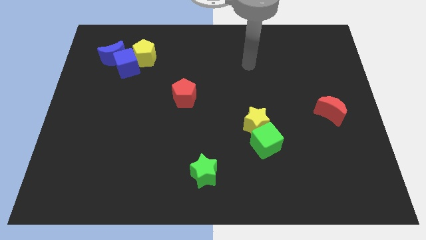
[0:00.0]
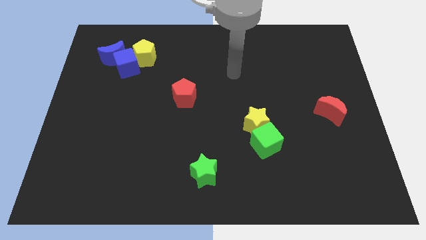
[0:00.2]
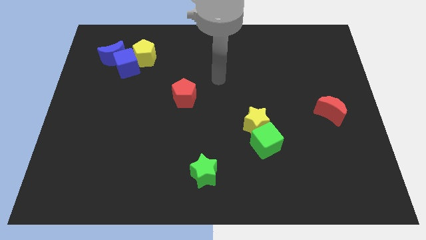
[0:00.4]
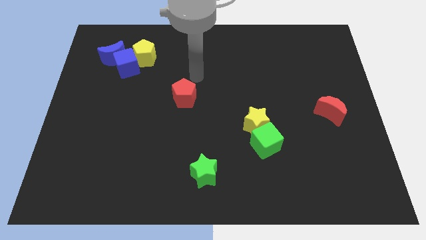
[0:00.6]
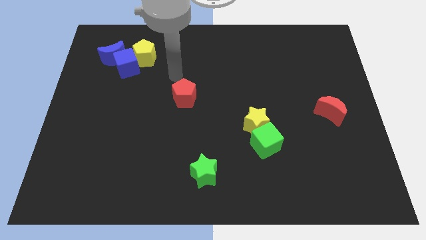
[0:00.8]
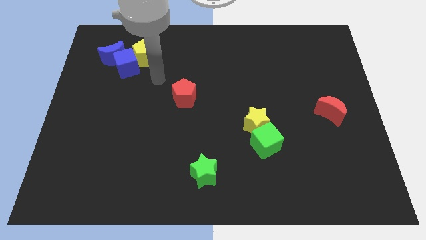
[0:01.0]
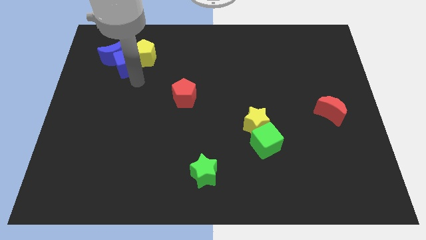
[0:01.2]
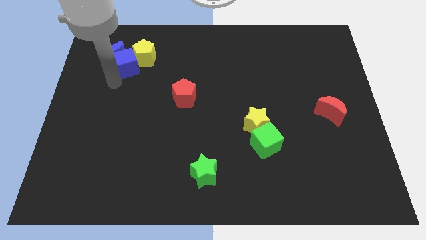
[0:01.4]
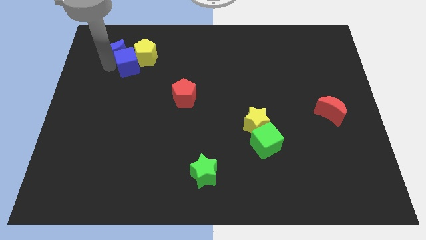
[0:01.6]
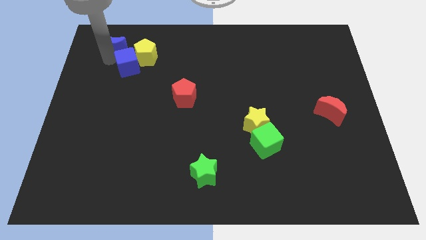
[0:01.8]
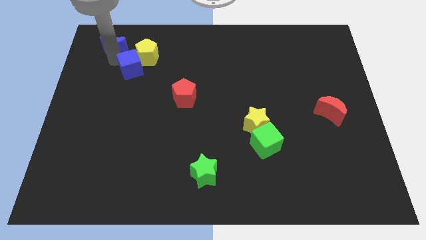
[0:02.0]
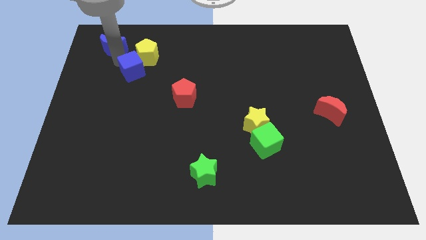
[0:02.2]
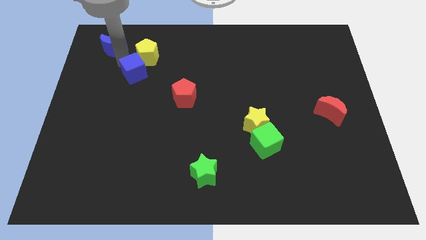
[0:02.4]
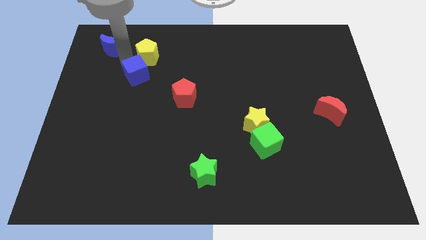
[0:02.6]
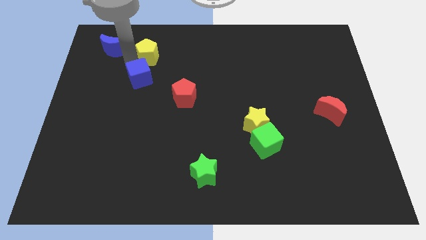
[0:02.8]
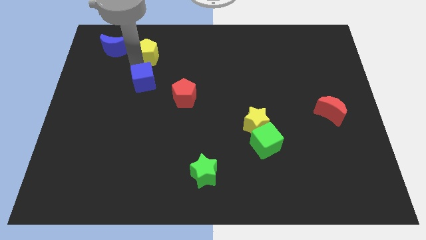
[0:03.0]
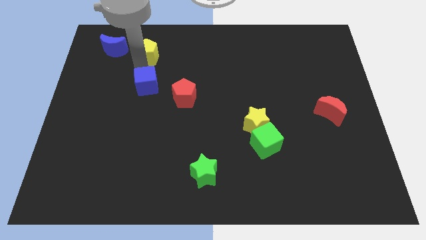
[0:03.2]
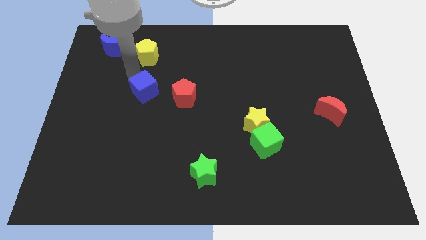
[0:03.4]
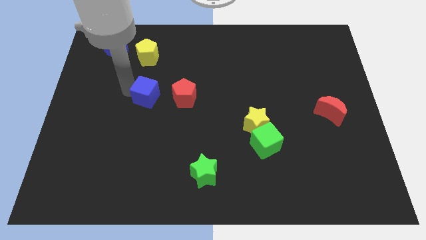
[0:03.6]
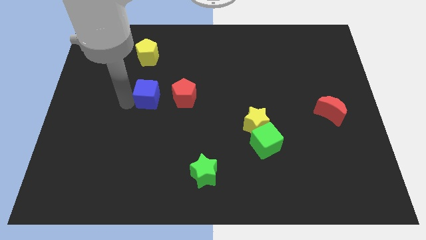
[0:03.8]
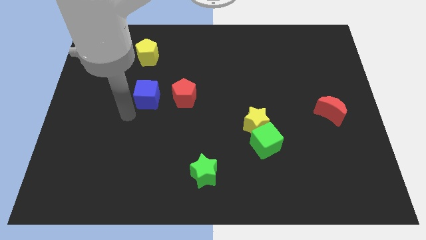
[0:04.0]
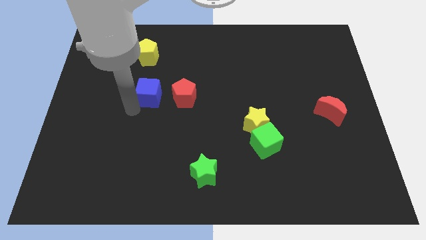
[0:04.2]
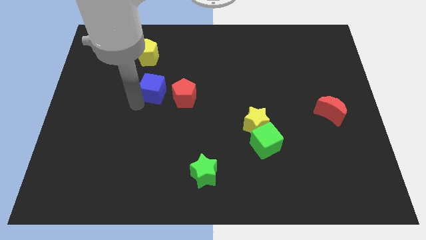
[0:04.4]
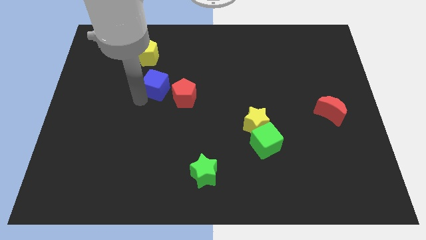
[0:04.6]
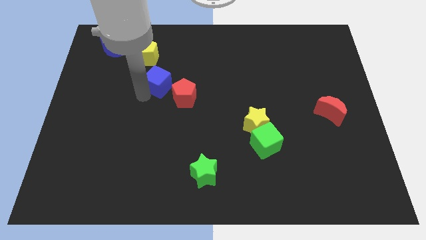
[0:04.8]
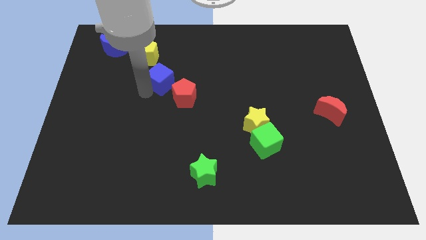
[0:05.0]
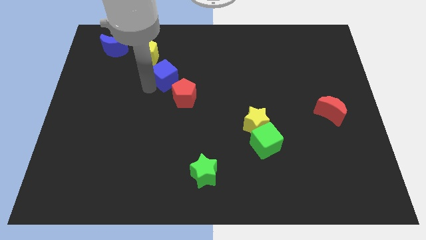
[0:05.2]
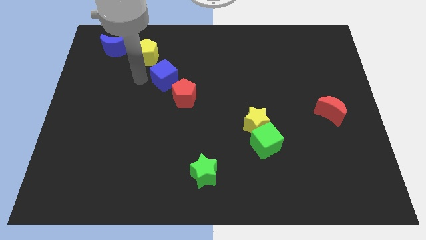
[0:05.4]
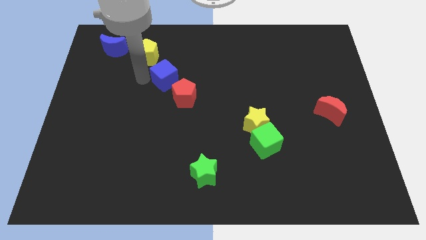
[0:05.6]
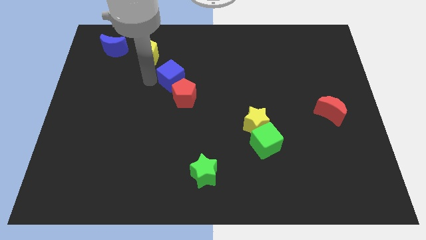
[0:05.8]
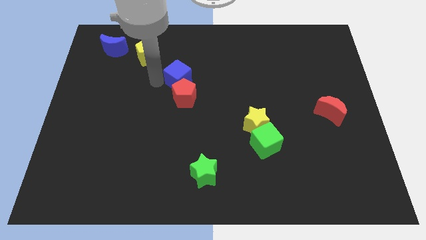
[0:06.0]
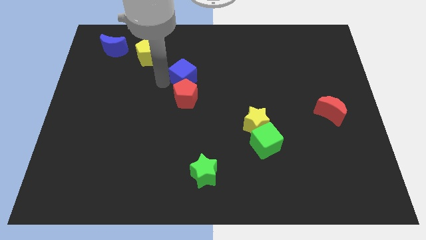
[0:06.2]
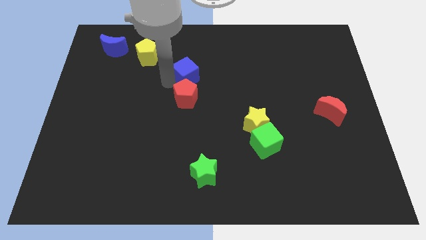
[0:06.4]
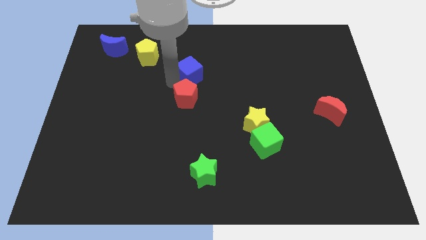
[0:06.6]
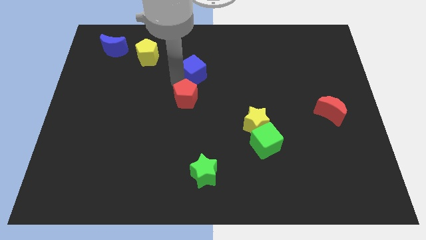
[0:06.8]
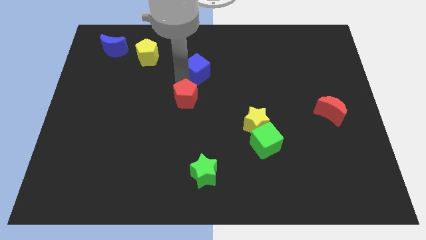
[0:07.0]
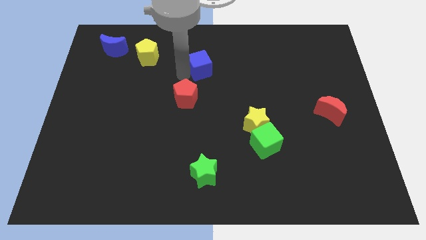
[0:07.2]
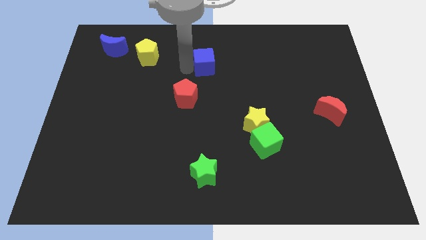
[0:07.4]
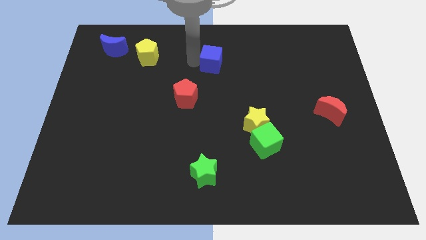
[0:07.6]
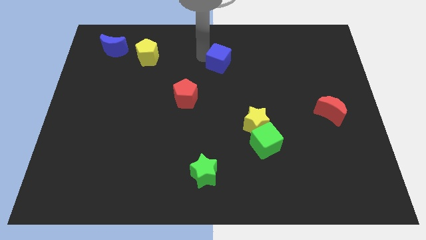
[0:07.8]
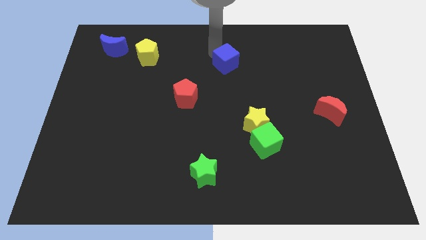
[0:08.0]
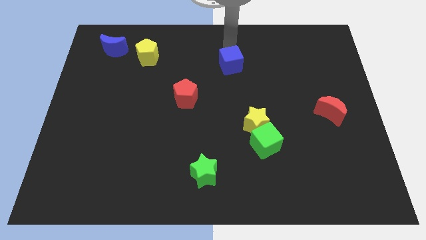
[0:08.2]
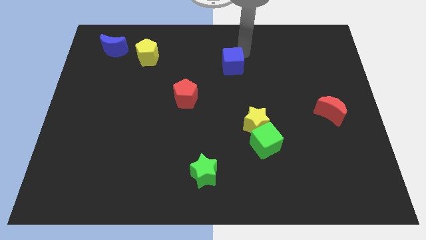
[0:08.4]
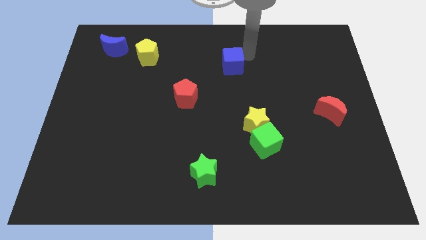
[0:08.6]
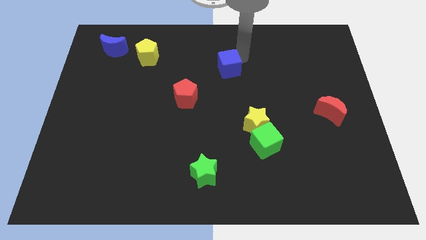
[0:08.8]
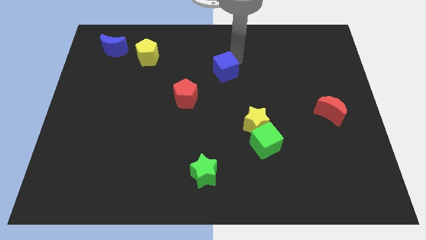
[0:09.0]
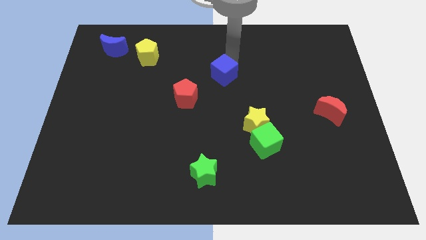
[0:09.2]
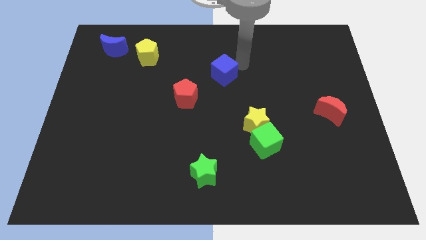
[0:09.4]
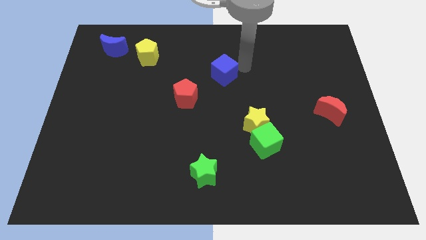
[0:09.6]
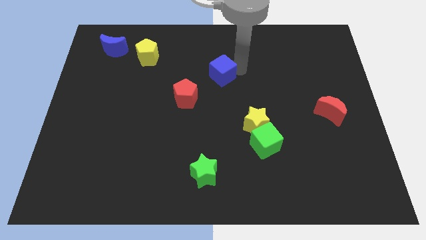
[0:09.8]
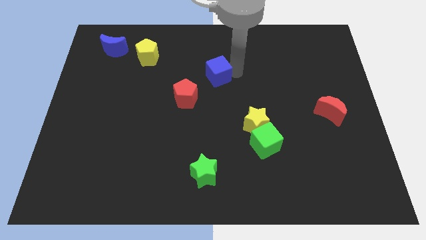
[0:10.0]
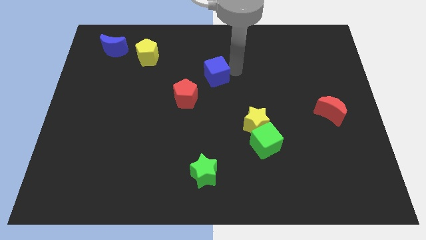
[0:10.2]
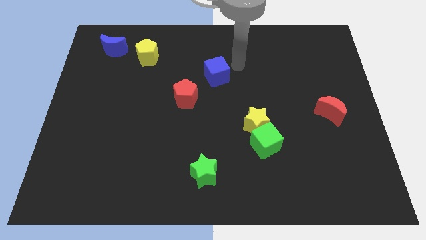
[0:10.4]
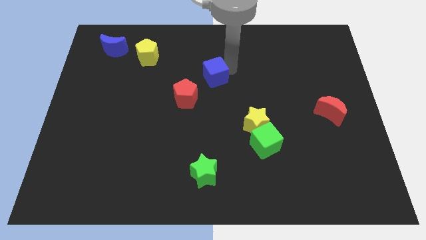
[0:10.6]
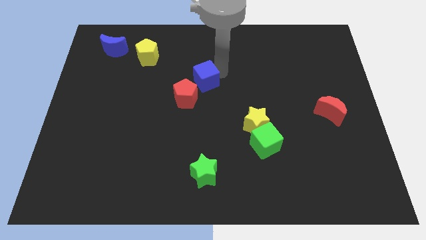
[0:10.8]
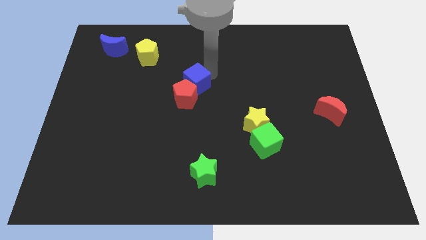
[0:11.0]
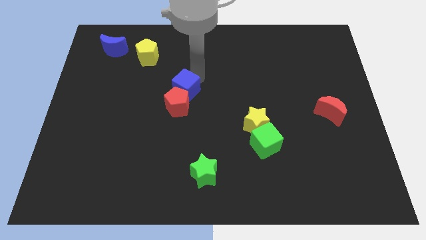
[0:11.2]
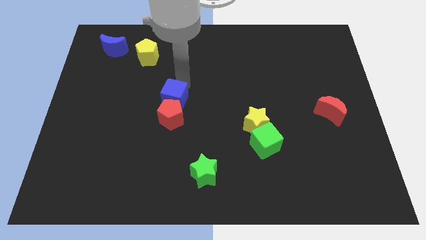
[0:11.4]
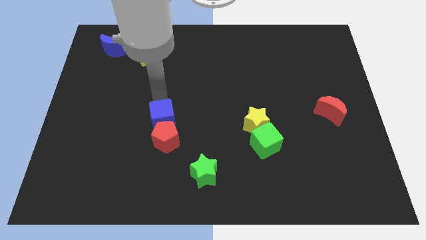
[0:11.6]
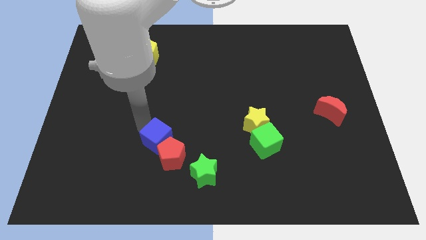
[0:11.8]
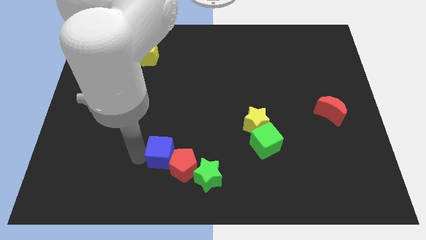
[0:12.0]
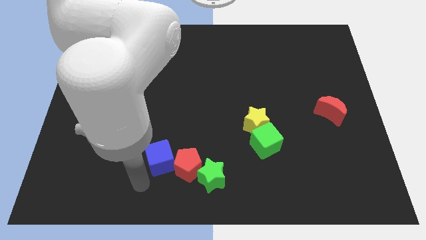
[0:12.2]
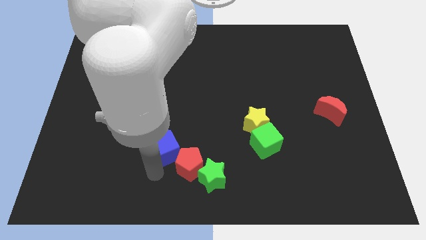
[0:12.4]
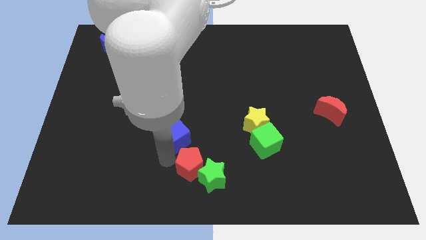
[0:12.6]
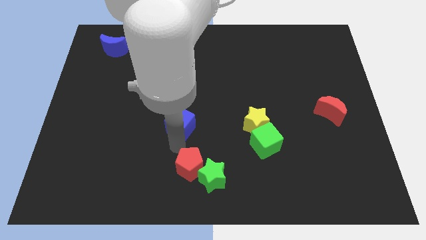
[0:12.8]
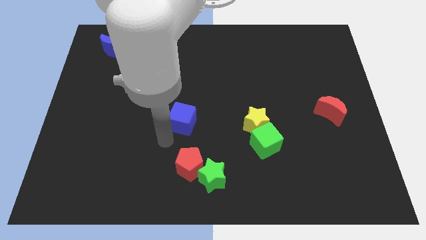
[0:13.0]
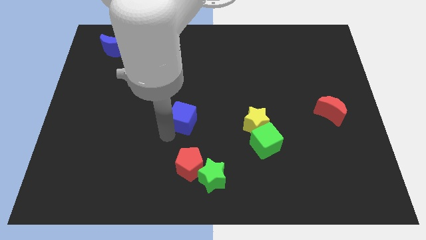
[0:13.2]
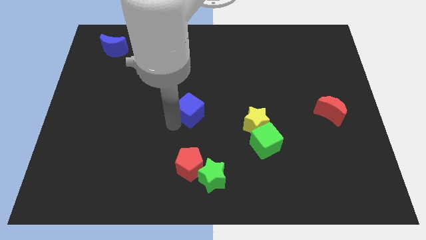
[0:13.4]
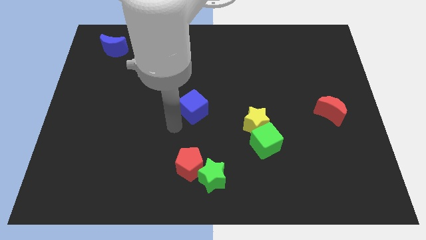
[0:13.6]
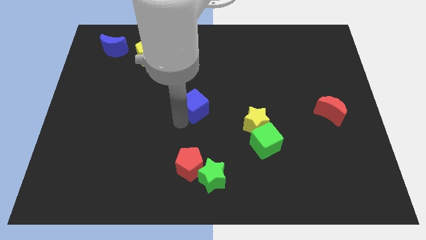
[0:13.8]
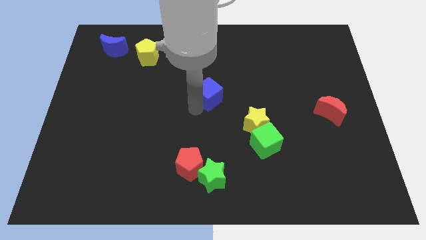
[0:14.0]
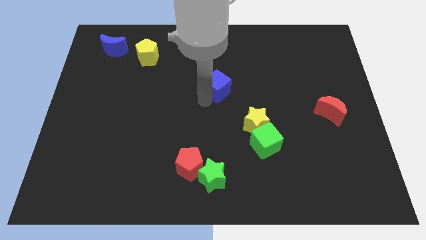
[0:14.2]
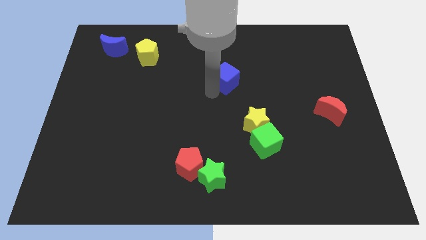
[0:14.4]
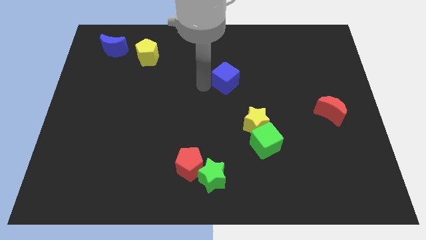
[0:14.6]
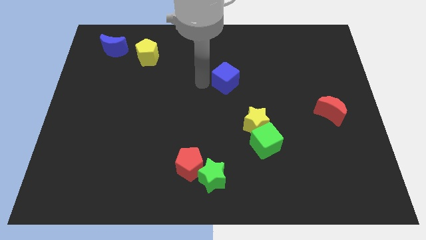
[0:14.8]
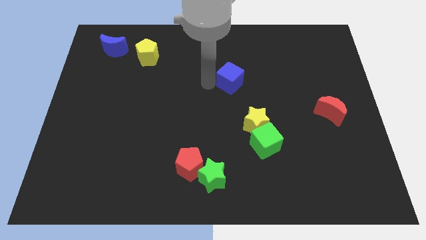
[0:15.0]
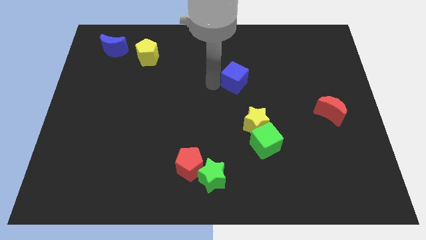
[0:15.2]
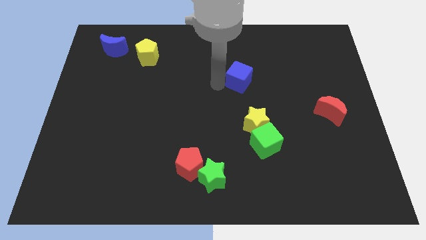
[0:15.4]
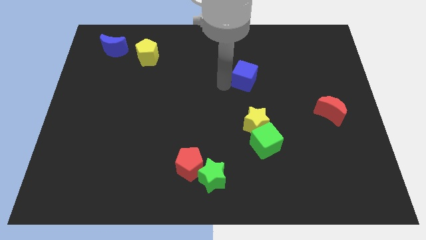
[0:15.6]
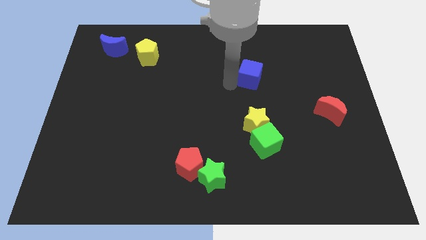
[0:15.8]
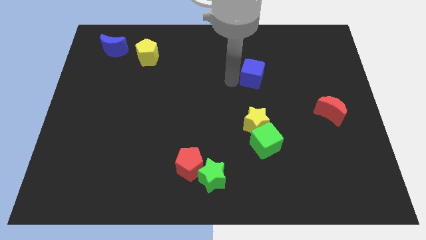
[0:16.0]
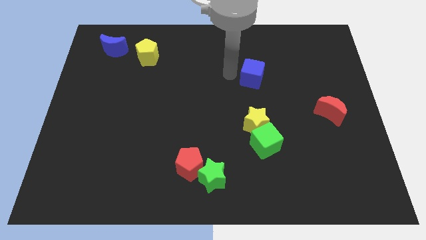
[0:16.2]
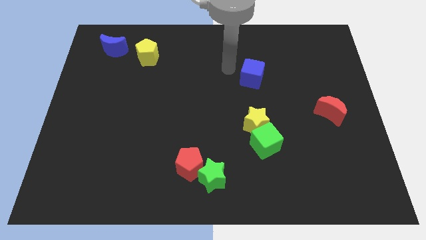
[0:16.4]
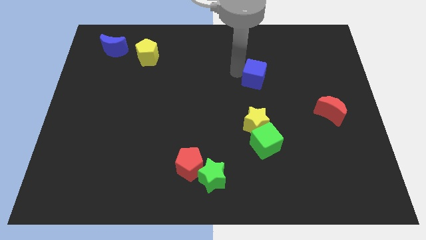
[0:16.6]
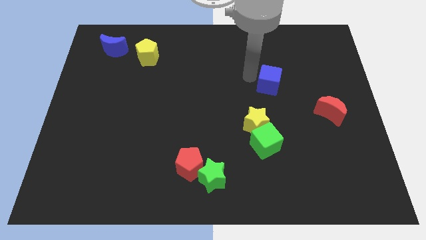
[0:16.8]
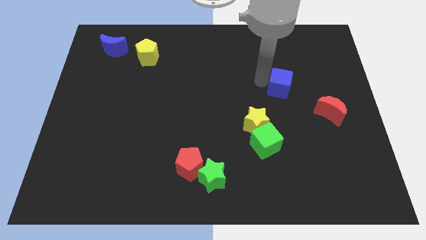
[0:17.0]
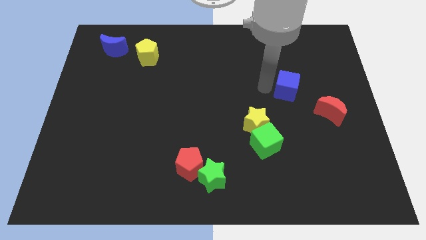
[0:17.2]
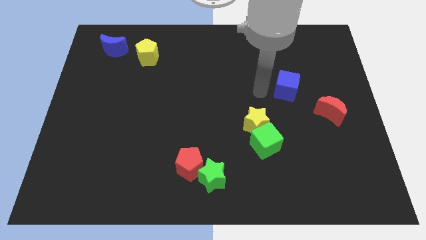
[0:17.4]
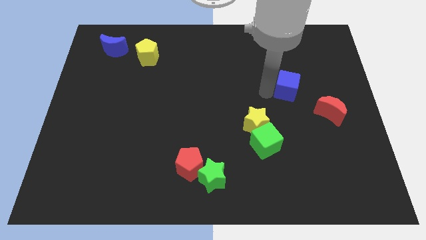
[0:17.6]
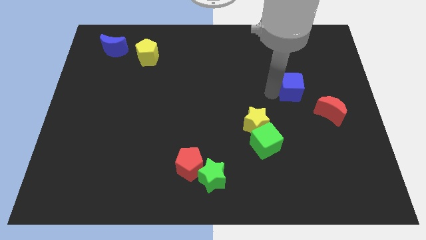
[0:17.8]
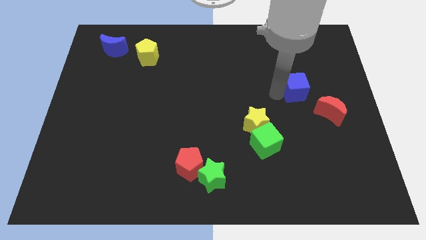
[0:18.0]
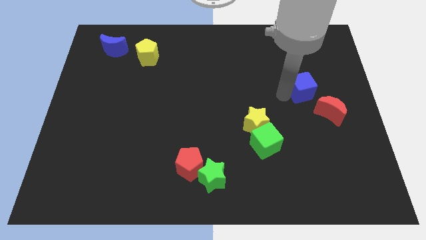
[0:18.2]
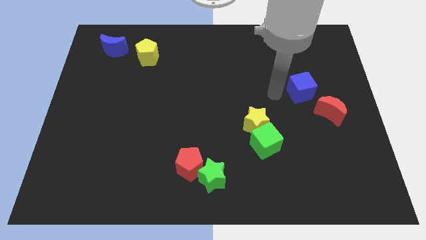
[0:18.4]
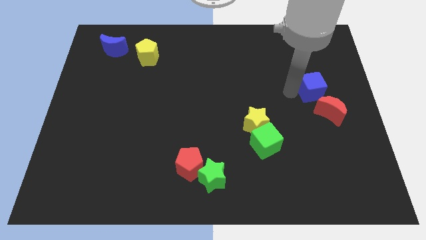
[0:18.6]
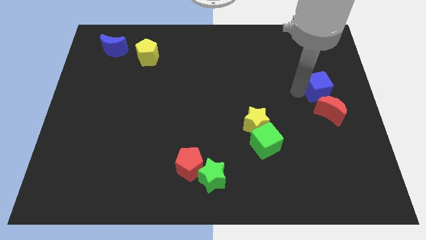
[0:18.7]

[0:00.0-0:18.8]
slide the blue cube to the right side
